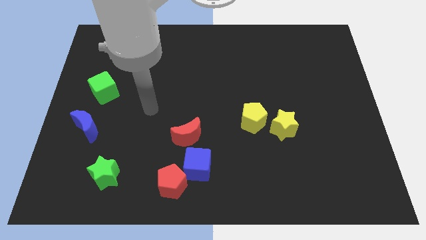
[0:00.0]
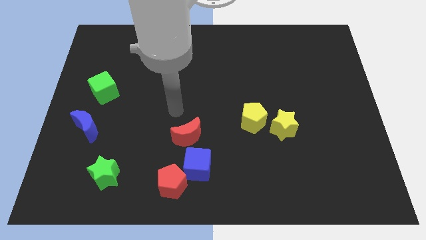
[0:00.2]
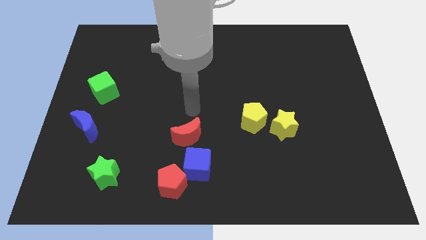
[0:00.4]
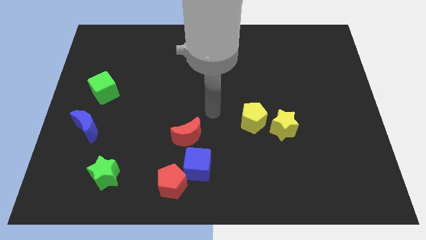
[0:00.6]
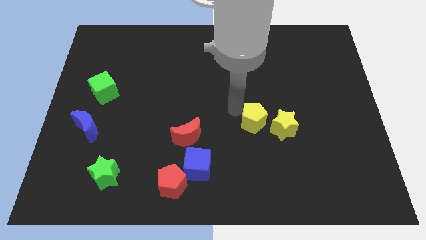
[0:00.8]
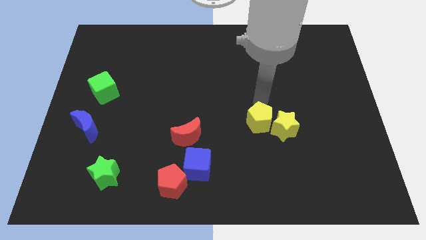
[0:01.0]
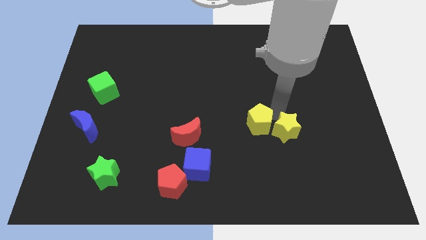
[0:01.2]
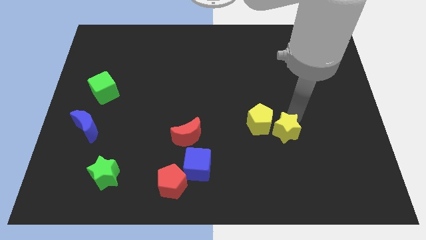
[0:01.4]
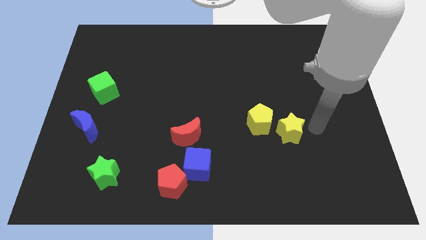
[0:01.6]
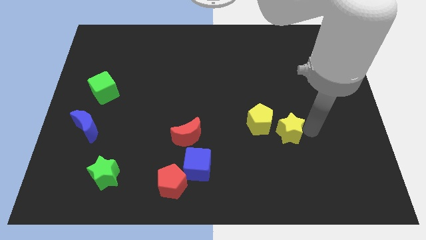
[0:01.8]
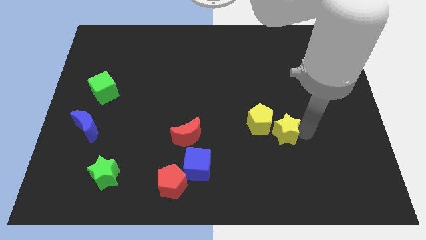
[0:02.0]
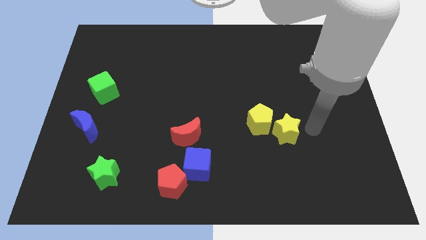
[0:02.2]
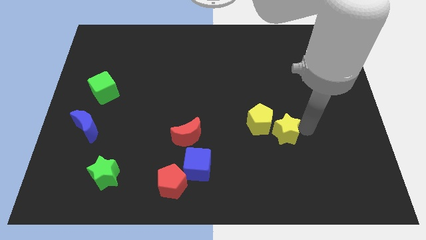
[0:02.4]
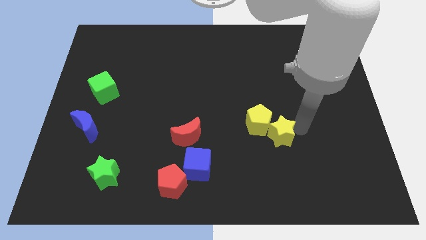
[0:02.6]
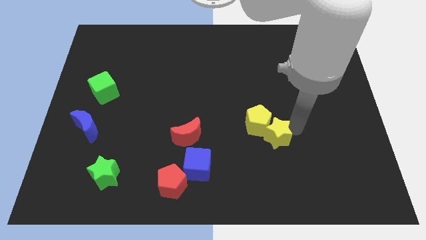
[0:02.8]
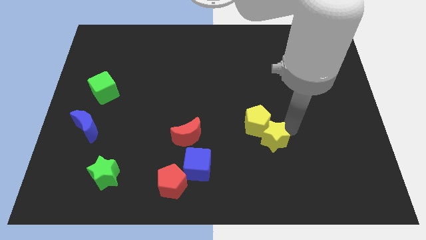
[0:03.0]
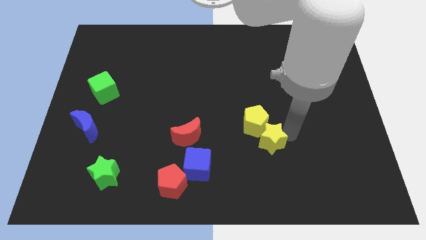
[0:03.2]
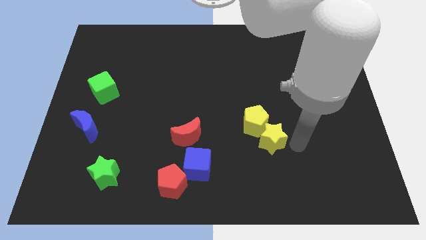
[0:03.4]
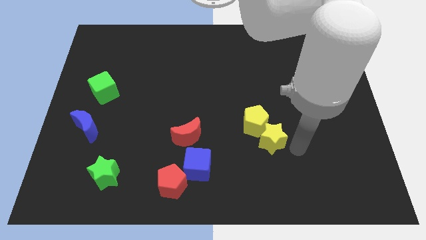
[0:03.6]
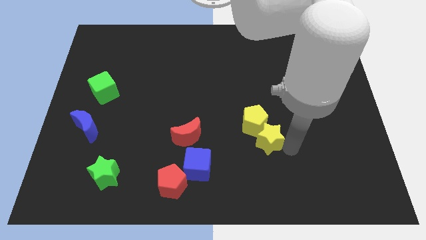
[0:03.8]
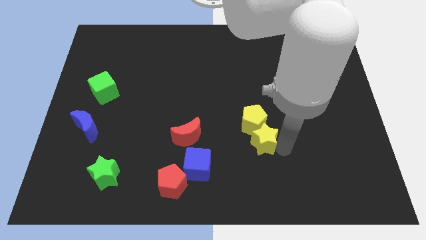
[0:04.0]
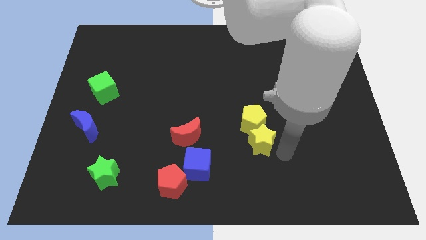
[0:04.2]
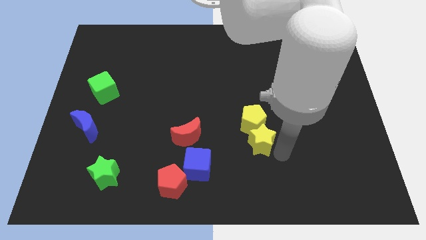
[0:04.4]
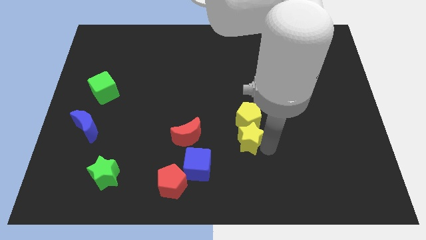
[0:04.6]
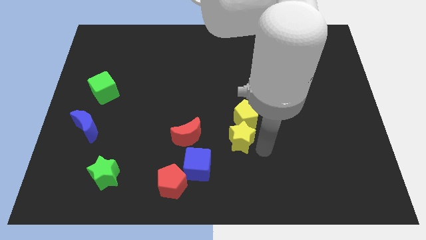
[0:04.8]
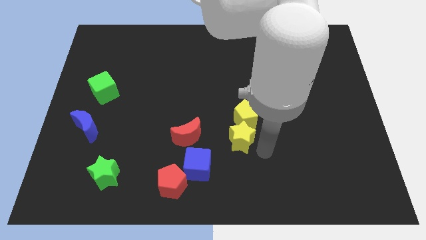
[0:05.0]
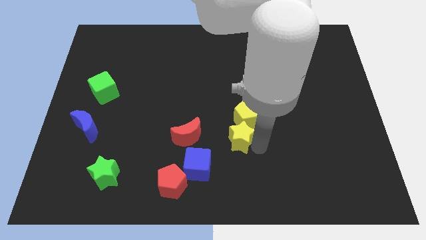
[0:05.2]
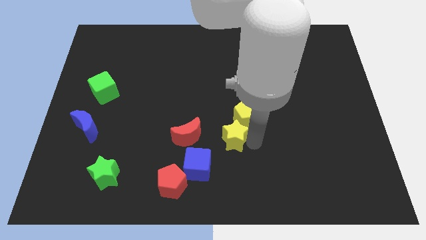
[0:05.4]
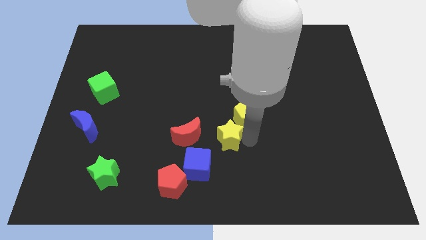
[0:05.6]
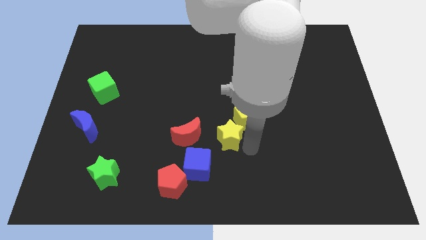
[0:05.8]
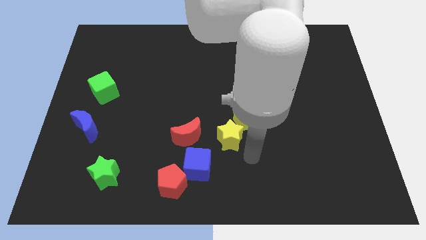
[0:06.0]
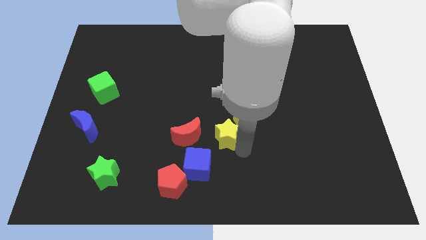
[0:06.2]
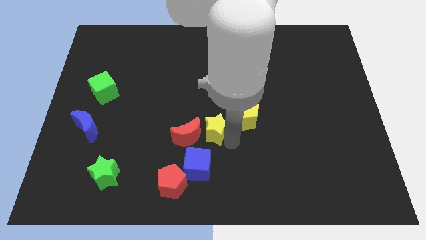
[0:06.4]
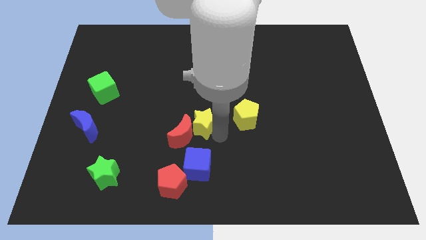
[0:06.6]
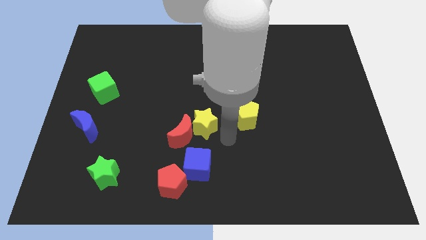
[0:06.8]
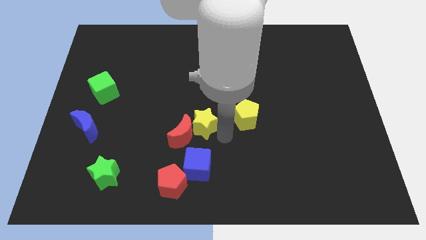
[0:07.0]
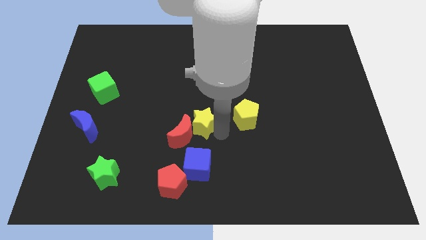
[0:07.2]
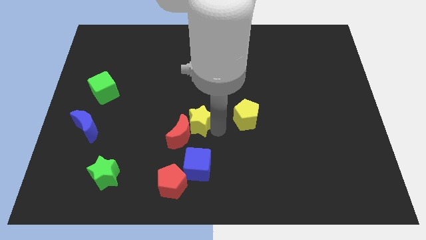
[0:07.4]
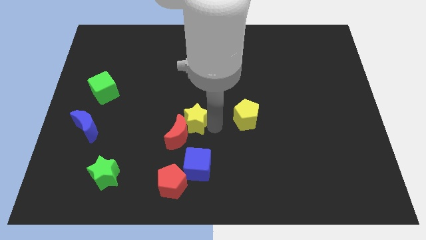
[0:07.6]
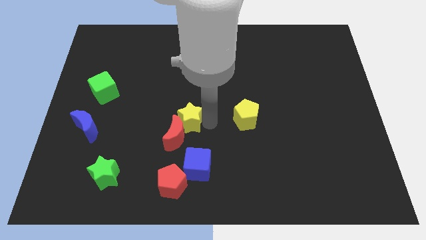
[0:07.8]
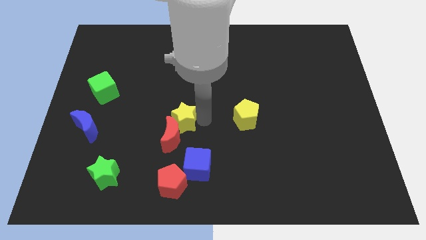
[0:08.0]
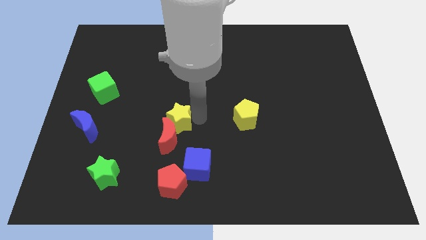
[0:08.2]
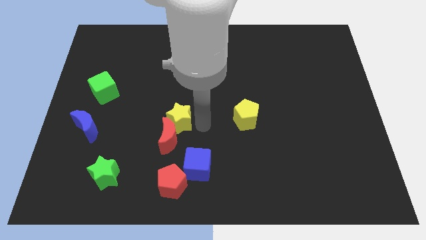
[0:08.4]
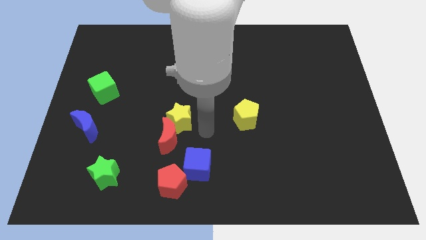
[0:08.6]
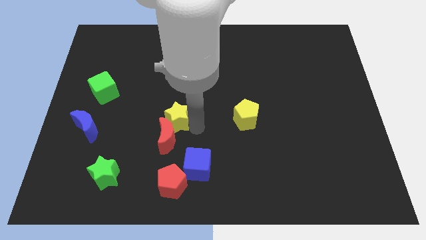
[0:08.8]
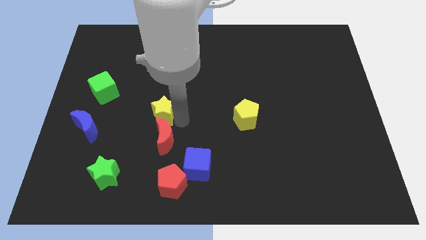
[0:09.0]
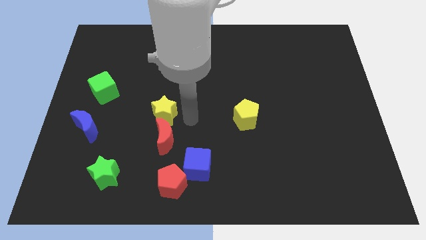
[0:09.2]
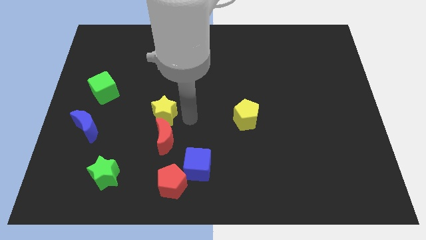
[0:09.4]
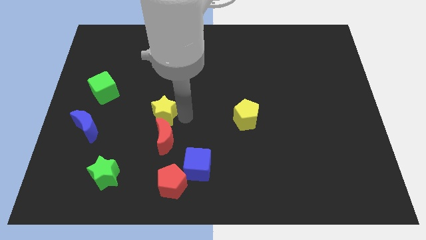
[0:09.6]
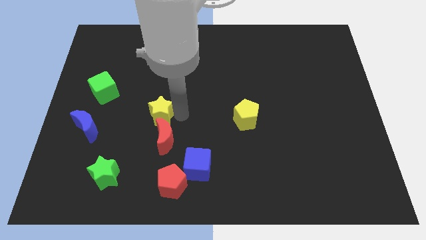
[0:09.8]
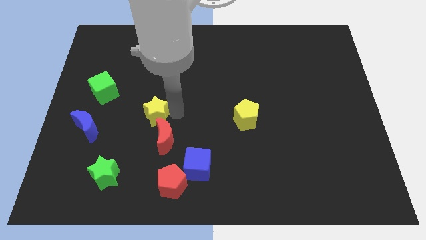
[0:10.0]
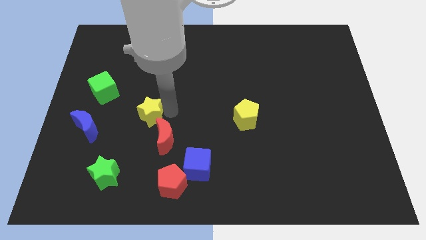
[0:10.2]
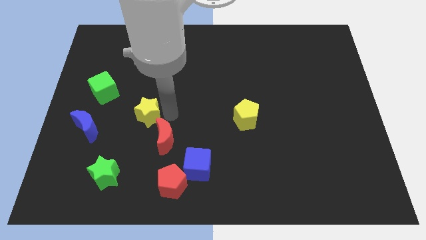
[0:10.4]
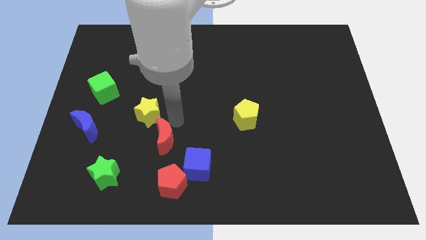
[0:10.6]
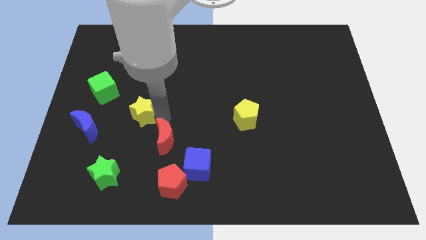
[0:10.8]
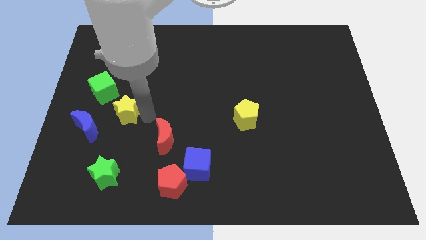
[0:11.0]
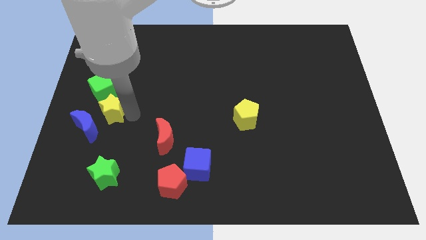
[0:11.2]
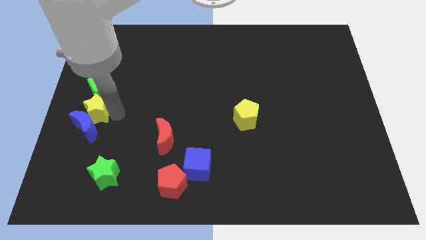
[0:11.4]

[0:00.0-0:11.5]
push the yellow star to the left side
